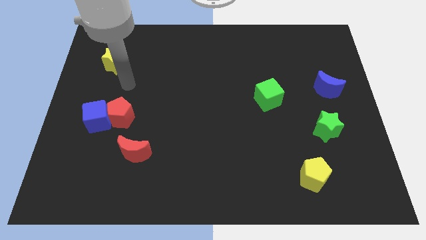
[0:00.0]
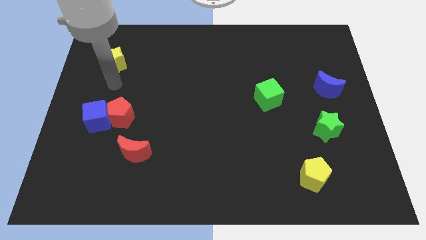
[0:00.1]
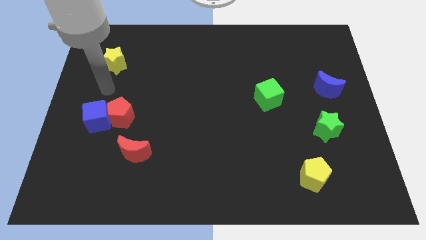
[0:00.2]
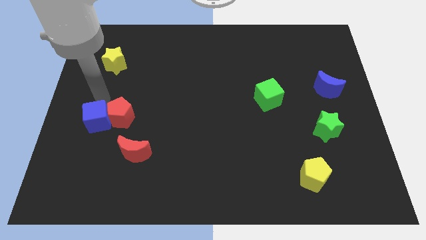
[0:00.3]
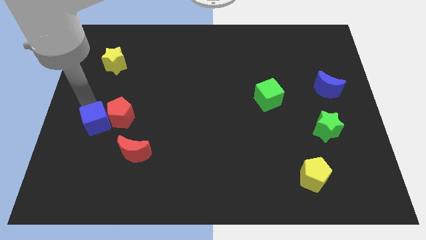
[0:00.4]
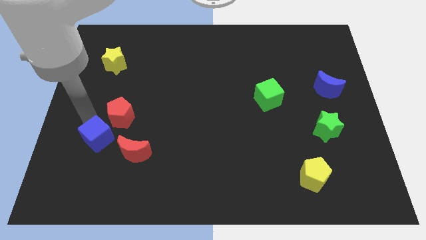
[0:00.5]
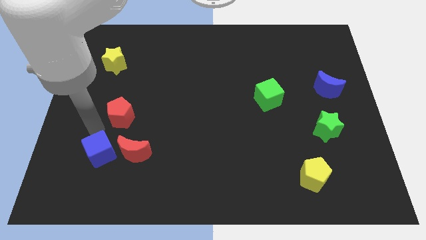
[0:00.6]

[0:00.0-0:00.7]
pull the red pentagon apart from the blue cube

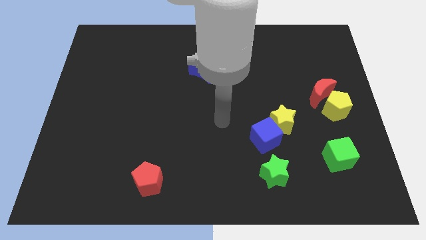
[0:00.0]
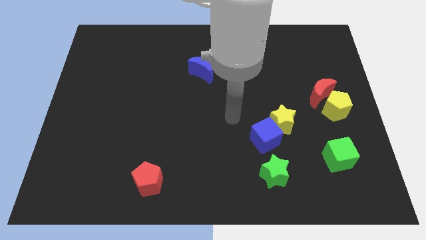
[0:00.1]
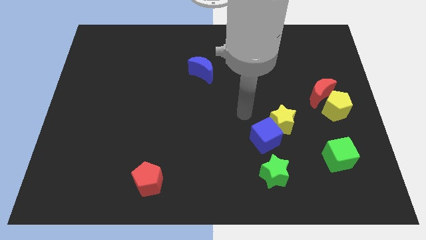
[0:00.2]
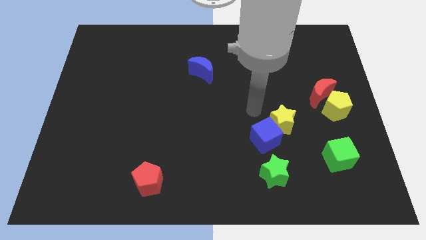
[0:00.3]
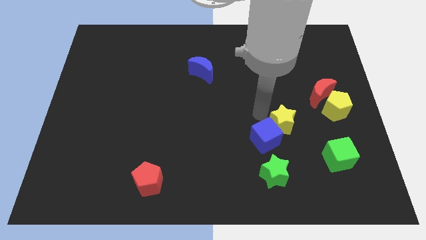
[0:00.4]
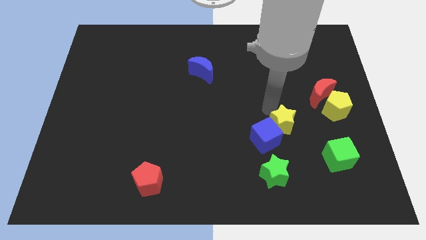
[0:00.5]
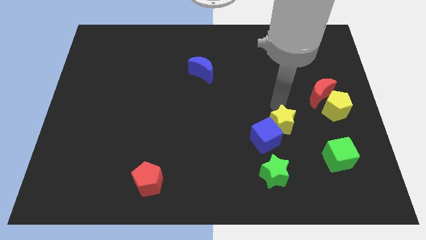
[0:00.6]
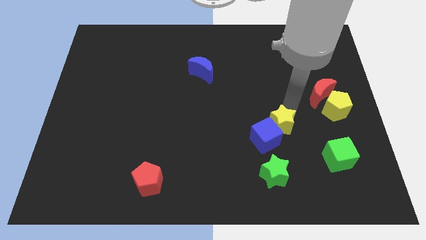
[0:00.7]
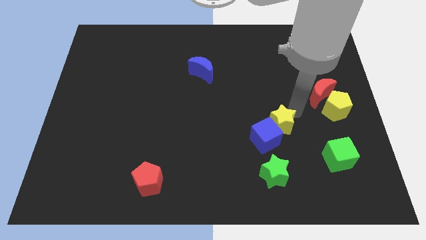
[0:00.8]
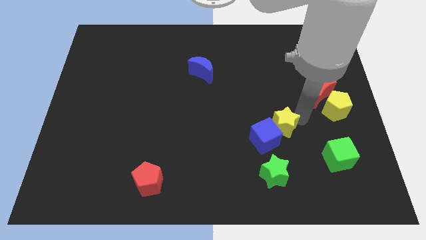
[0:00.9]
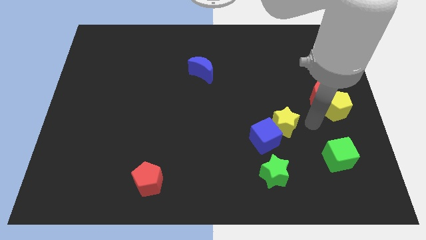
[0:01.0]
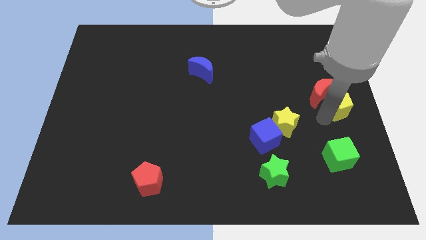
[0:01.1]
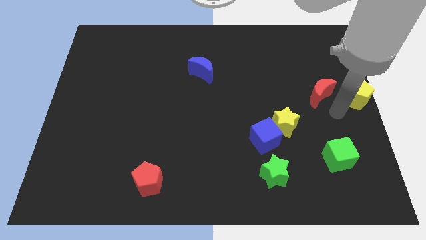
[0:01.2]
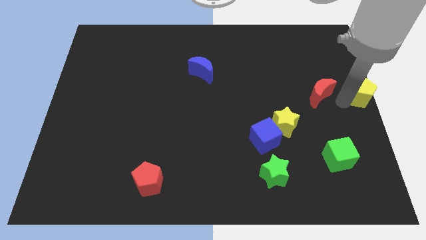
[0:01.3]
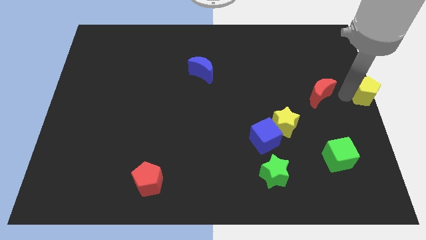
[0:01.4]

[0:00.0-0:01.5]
pull the red moon apart from the yellow pentagon

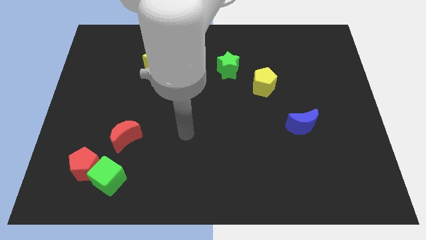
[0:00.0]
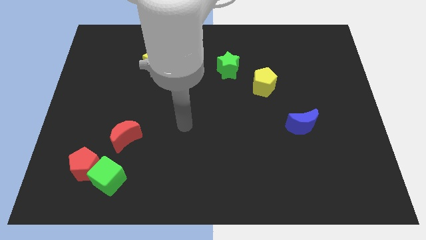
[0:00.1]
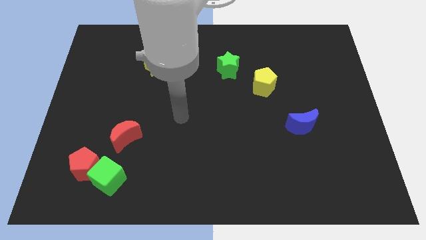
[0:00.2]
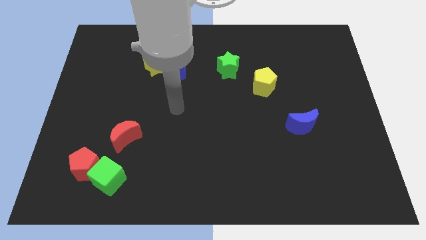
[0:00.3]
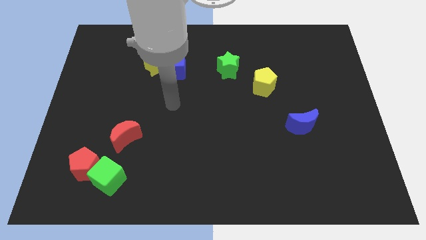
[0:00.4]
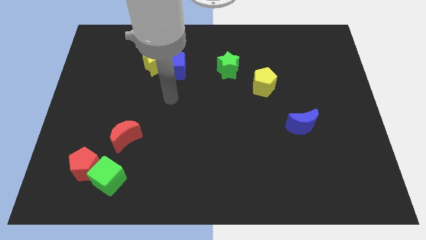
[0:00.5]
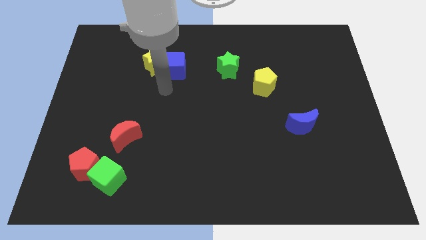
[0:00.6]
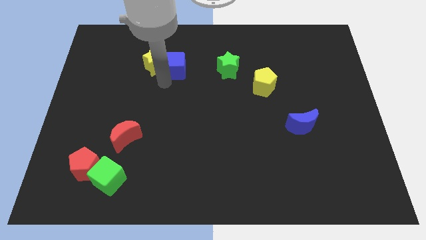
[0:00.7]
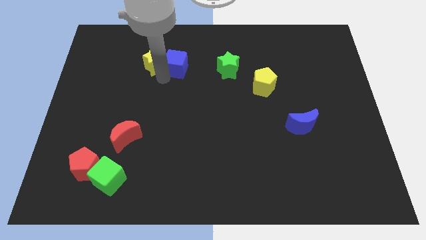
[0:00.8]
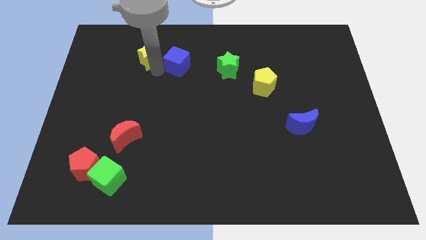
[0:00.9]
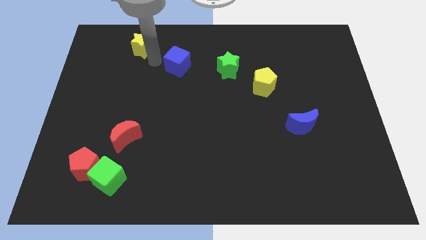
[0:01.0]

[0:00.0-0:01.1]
move the blue cube away from the yellow star

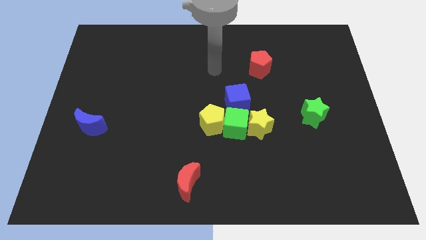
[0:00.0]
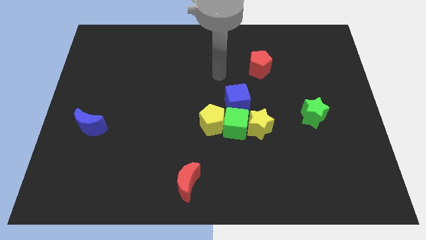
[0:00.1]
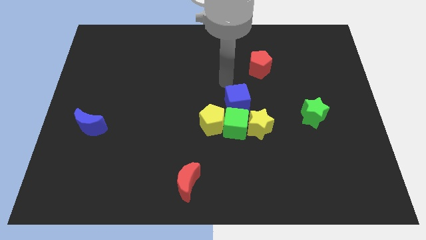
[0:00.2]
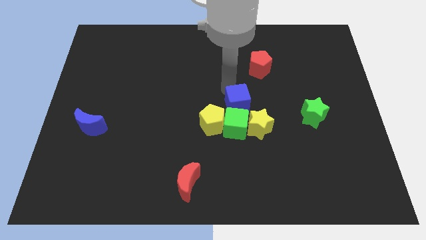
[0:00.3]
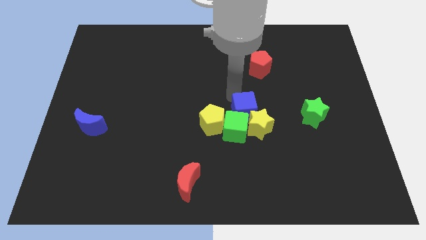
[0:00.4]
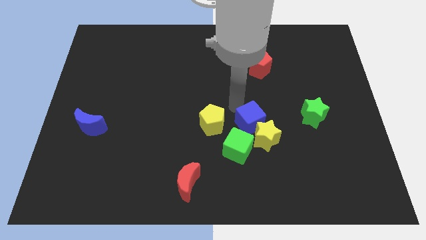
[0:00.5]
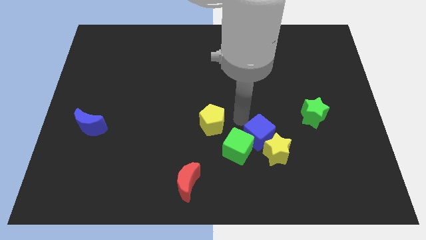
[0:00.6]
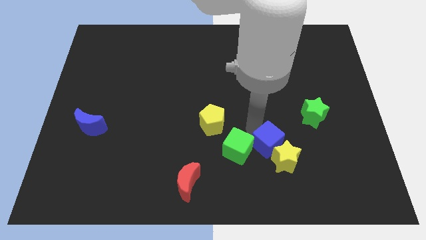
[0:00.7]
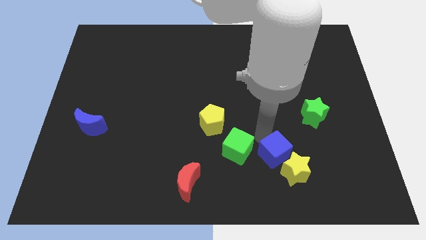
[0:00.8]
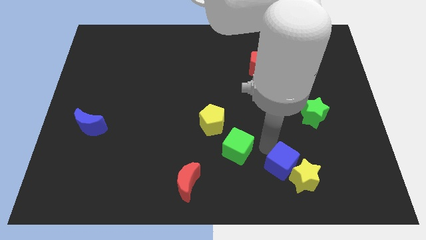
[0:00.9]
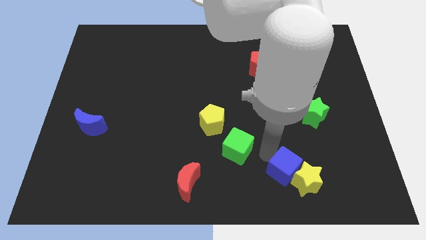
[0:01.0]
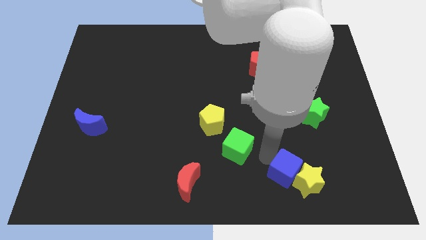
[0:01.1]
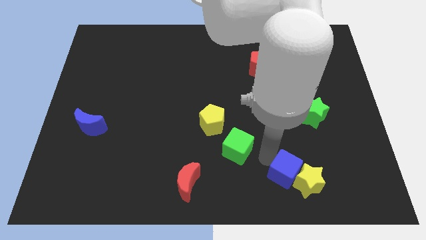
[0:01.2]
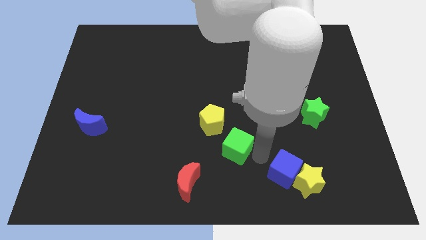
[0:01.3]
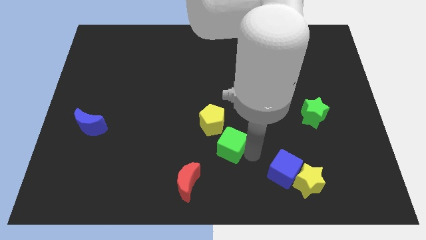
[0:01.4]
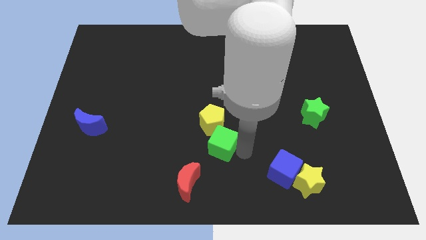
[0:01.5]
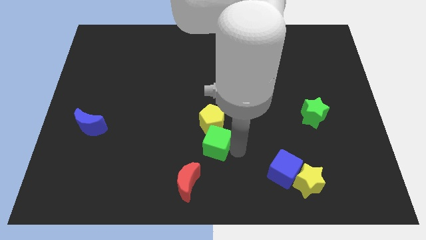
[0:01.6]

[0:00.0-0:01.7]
move the green cube away from the group of blocks

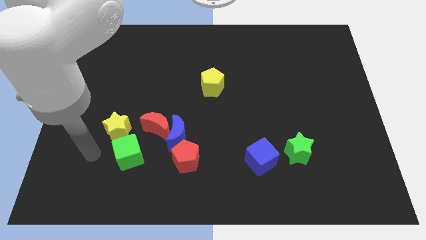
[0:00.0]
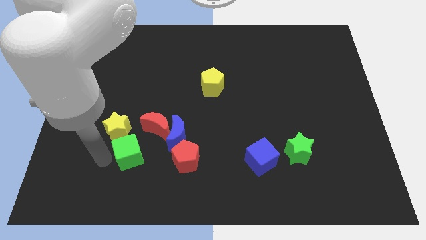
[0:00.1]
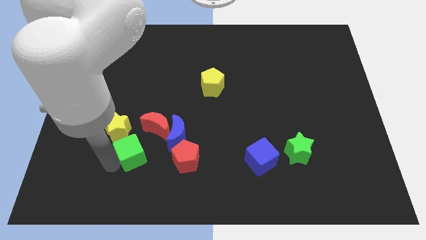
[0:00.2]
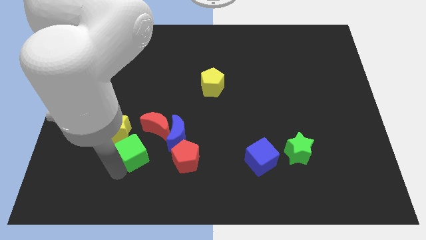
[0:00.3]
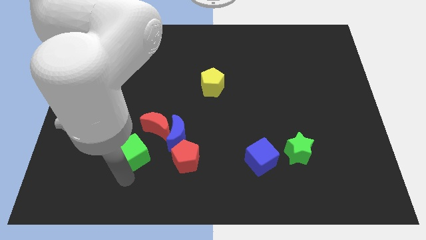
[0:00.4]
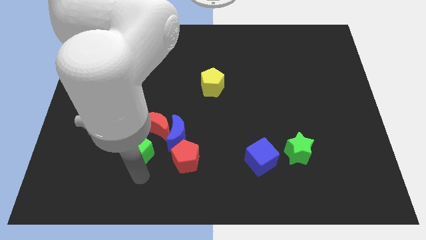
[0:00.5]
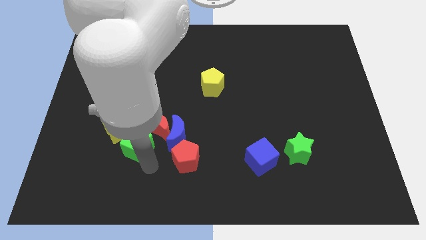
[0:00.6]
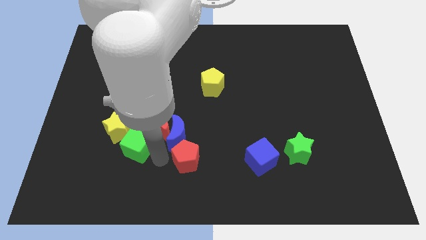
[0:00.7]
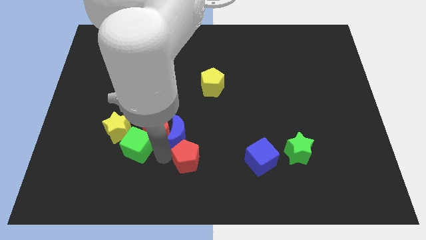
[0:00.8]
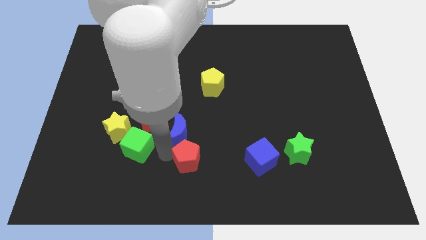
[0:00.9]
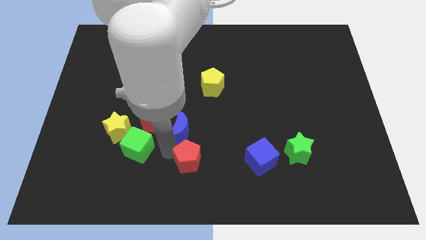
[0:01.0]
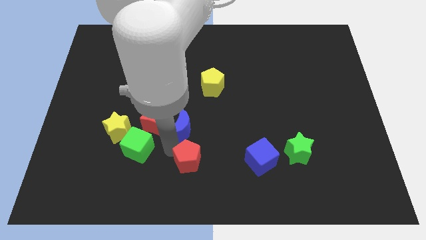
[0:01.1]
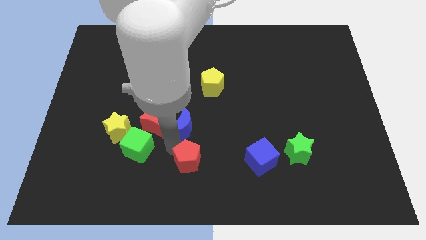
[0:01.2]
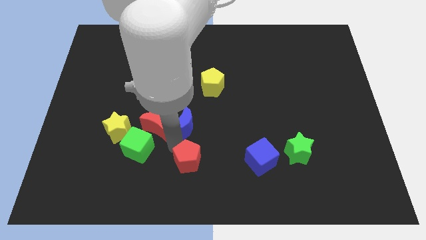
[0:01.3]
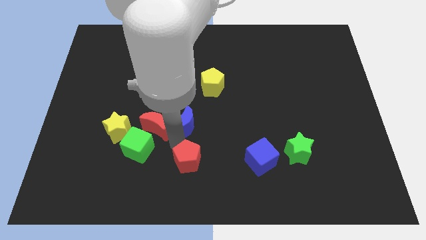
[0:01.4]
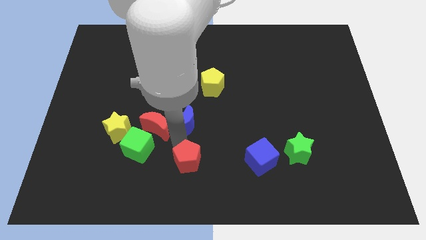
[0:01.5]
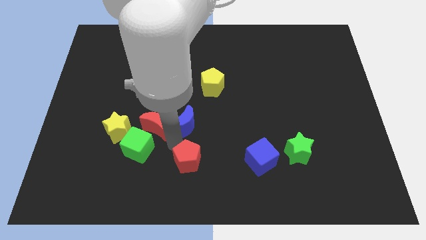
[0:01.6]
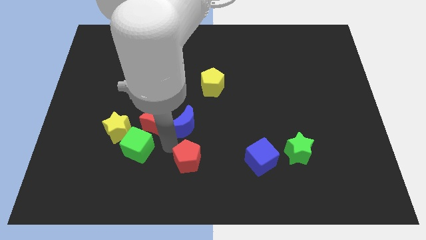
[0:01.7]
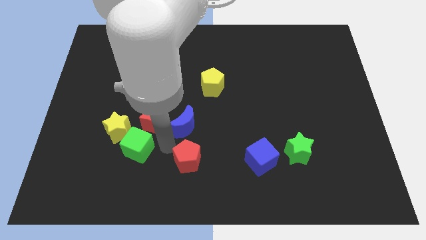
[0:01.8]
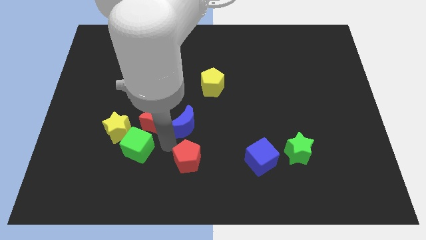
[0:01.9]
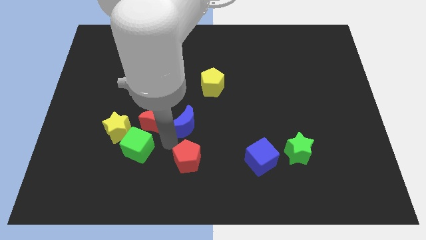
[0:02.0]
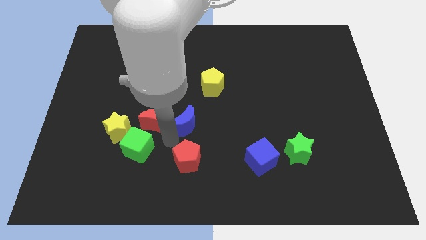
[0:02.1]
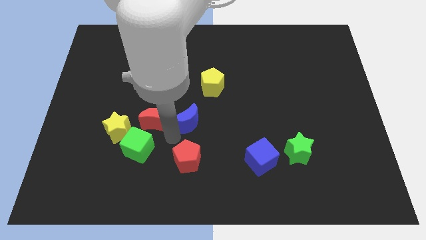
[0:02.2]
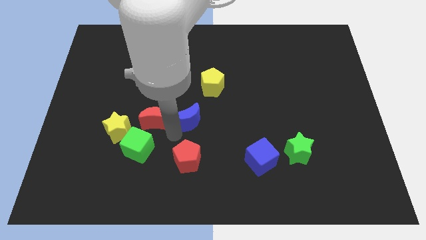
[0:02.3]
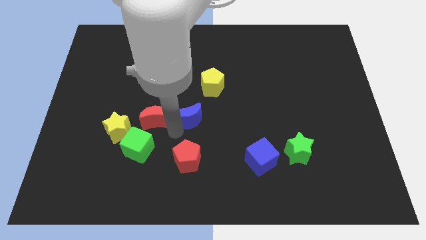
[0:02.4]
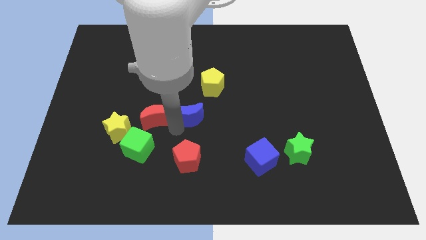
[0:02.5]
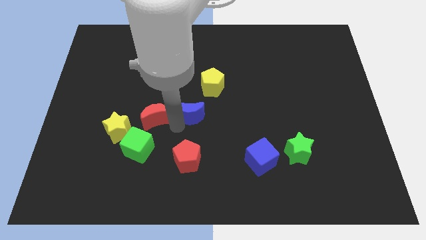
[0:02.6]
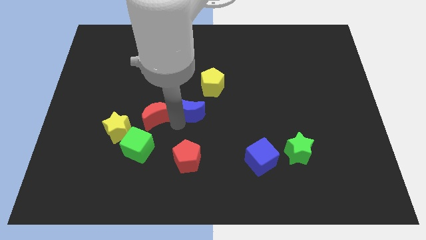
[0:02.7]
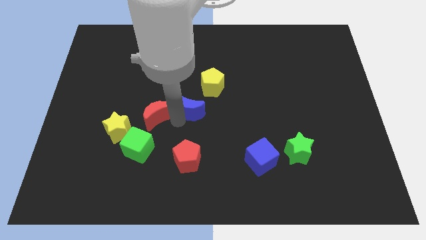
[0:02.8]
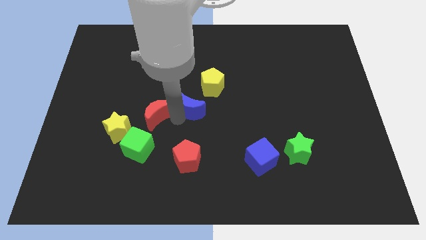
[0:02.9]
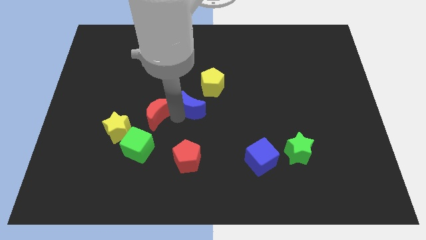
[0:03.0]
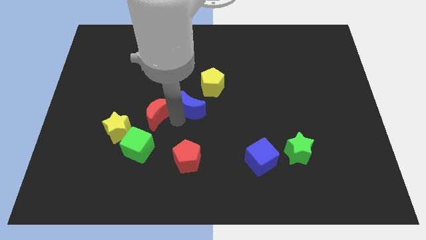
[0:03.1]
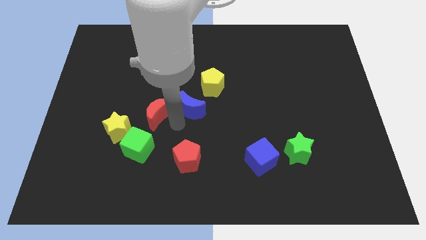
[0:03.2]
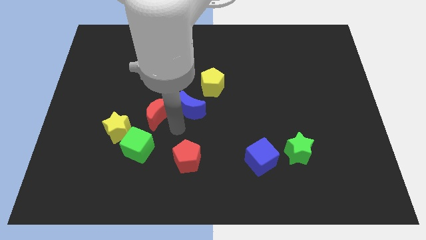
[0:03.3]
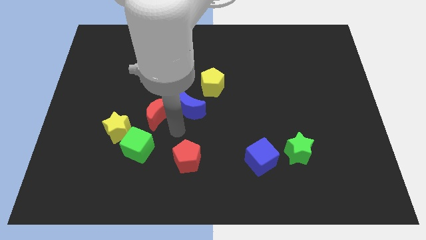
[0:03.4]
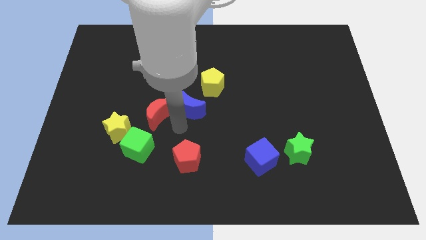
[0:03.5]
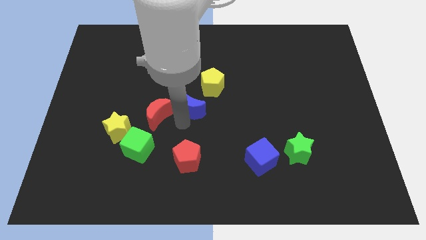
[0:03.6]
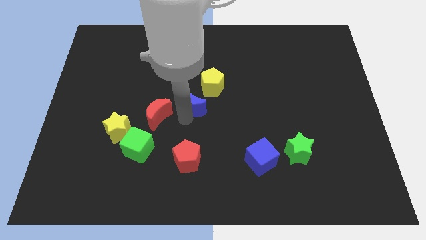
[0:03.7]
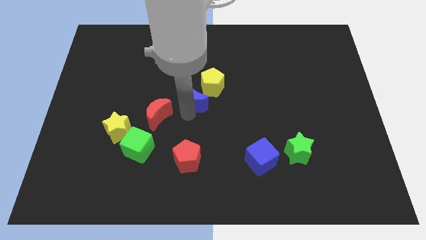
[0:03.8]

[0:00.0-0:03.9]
pull the blue moon apart from the red moon and red pentagon

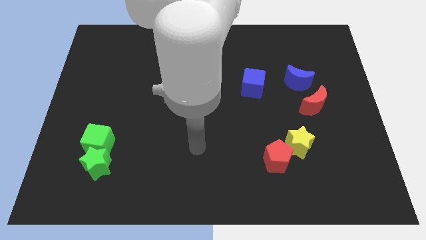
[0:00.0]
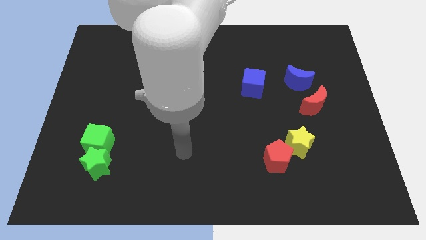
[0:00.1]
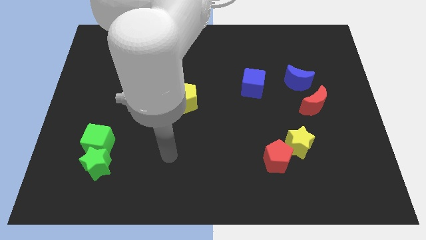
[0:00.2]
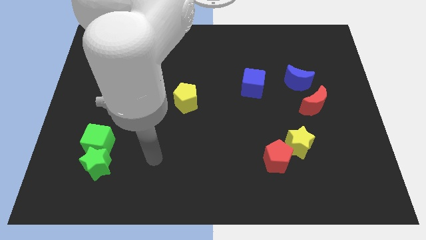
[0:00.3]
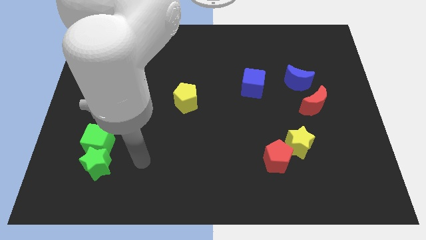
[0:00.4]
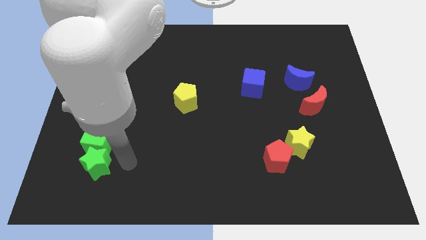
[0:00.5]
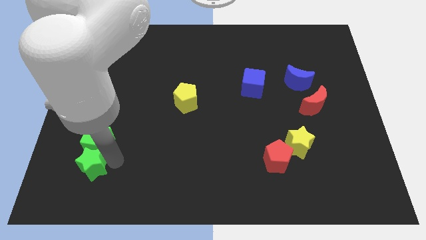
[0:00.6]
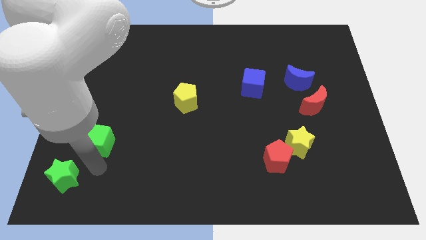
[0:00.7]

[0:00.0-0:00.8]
move the green cube away from the green star
